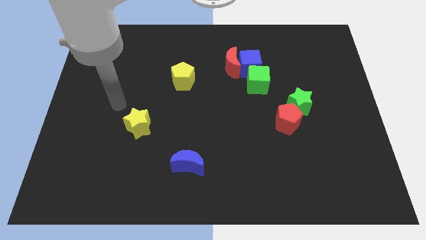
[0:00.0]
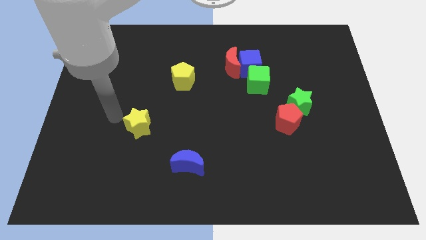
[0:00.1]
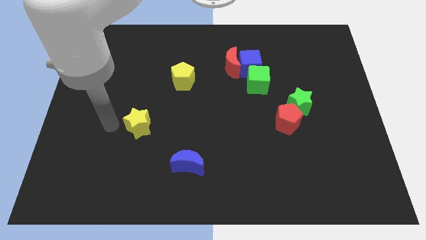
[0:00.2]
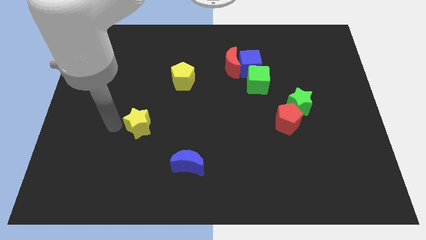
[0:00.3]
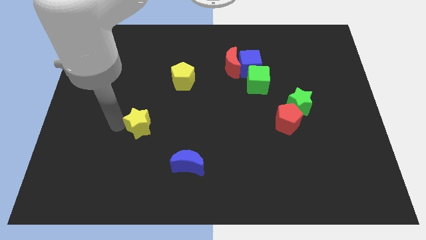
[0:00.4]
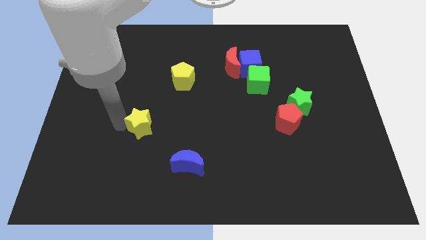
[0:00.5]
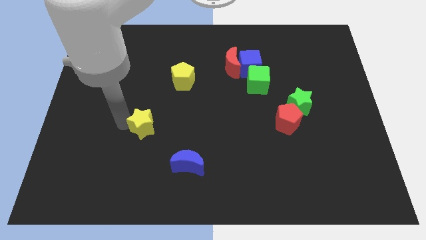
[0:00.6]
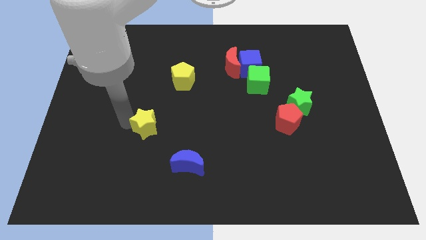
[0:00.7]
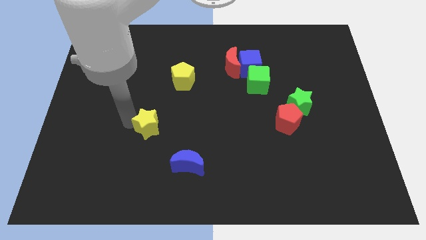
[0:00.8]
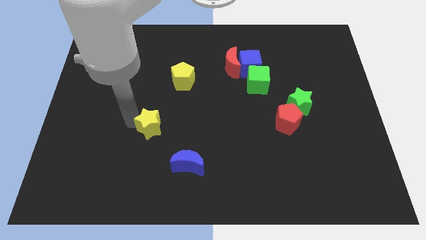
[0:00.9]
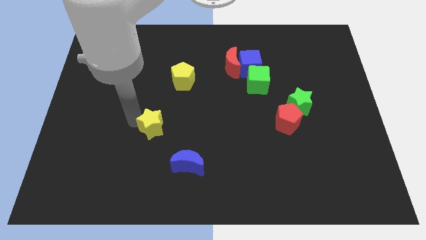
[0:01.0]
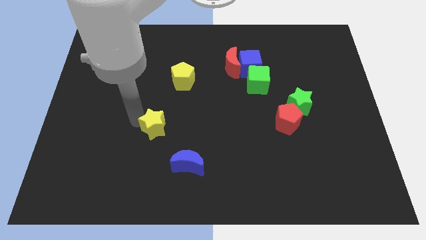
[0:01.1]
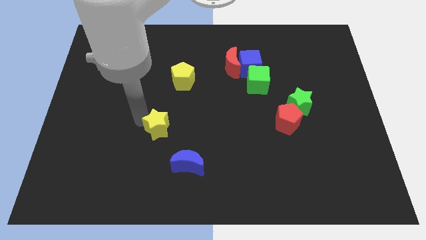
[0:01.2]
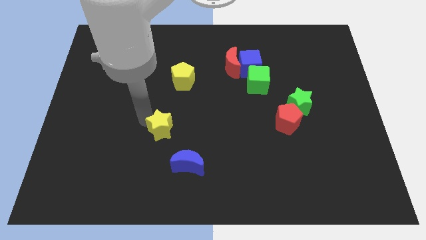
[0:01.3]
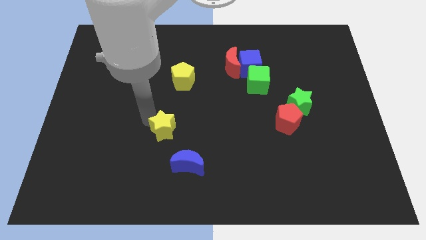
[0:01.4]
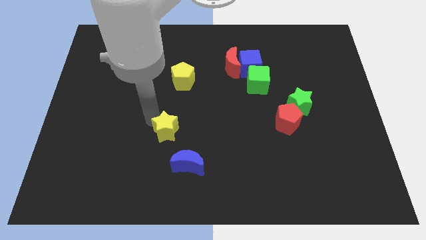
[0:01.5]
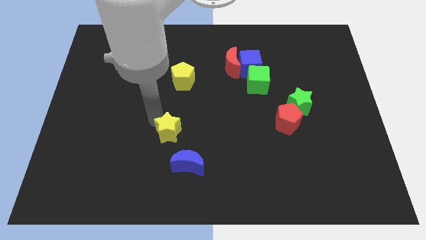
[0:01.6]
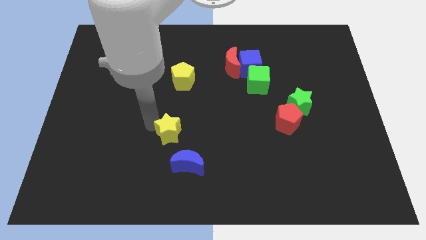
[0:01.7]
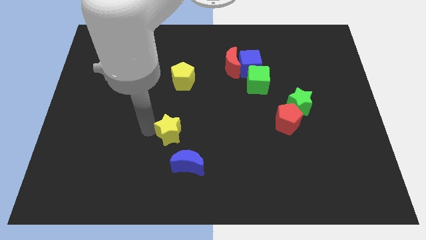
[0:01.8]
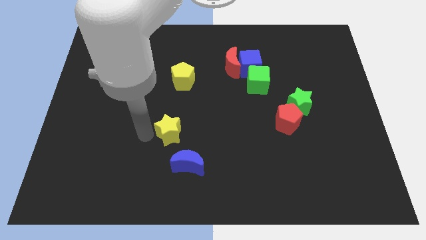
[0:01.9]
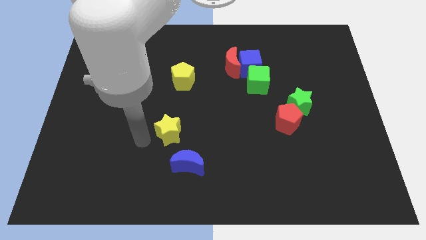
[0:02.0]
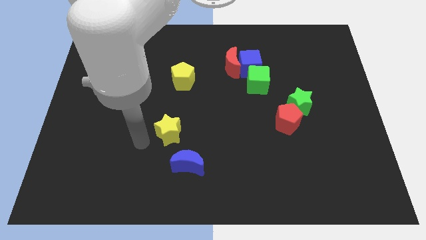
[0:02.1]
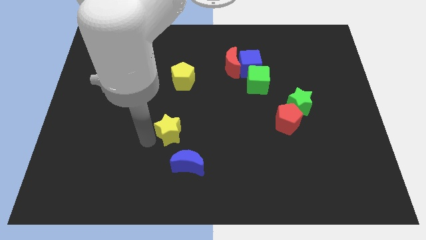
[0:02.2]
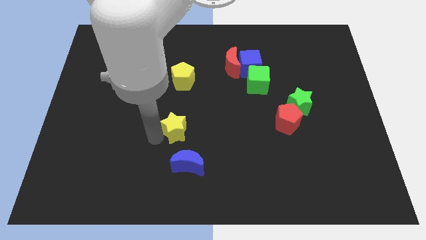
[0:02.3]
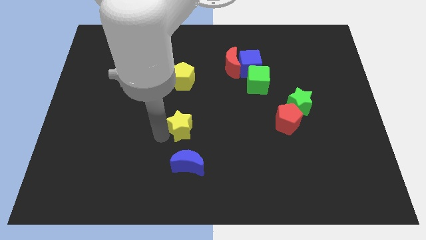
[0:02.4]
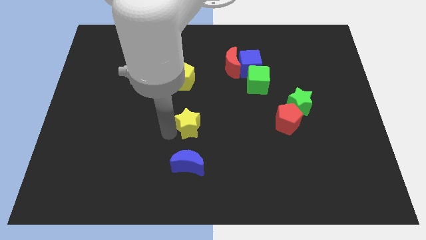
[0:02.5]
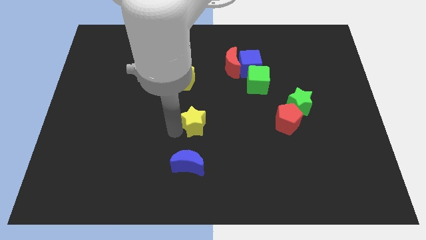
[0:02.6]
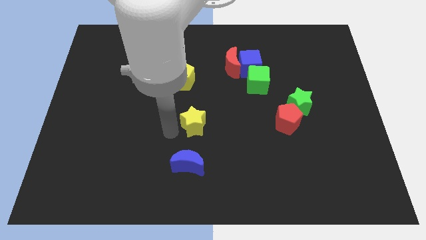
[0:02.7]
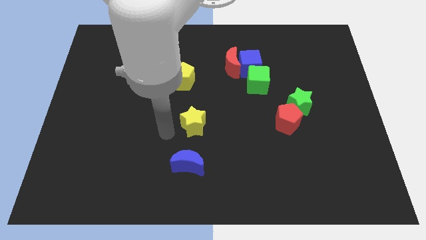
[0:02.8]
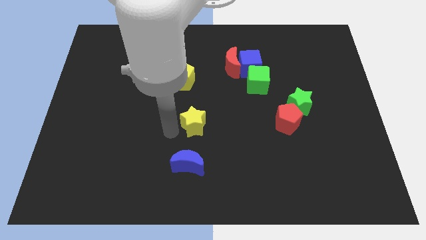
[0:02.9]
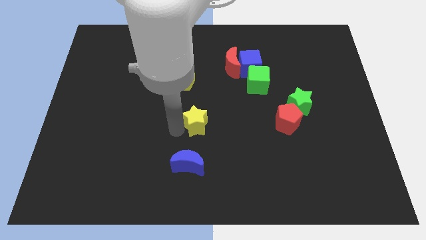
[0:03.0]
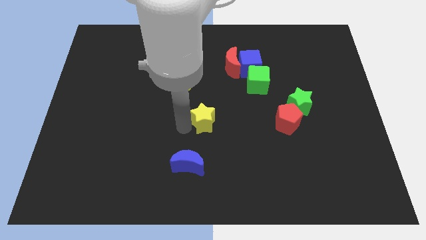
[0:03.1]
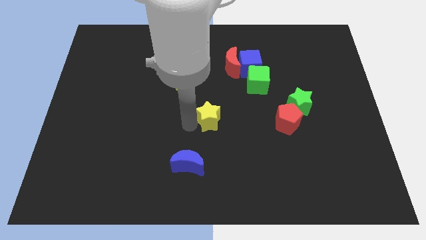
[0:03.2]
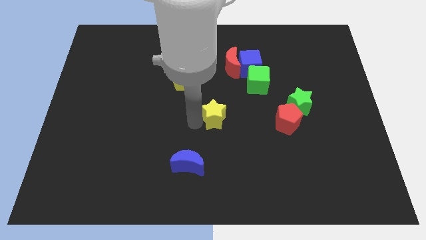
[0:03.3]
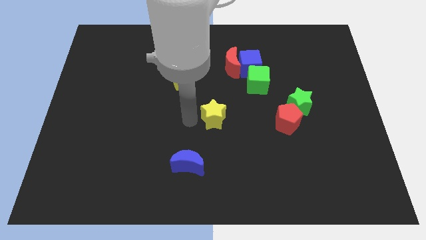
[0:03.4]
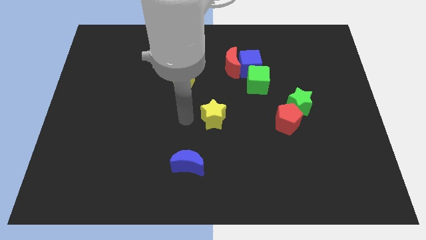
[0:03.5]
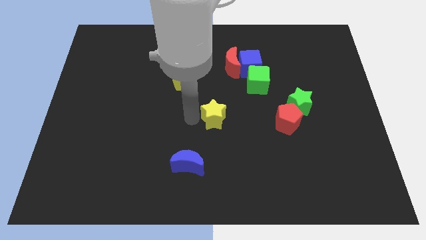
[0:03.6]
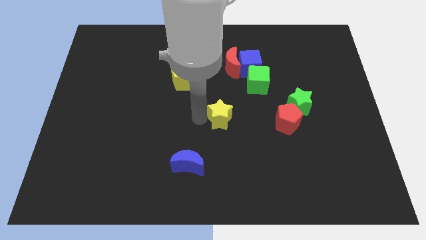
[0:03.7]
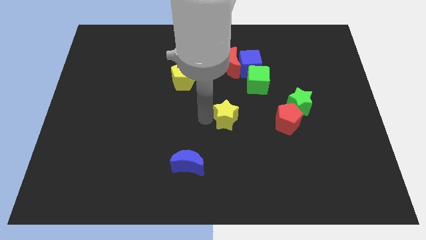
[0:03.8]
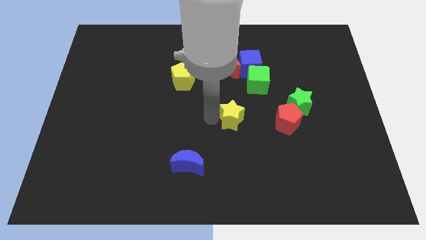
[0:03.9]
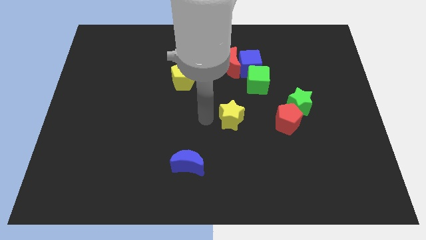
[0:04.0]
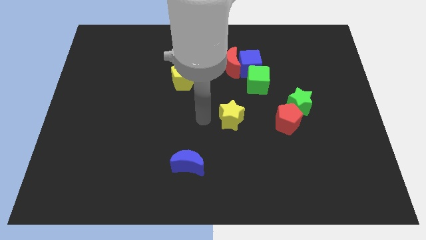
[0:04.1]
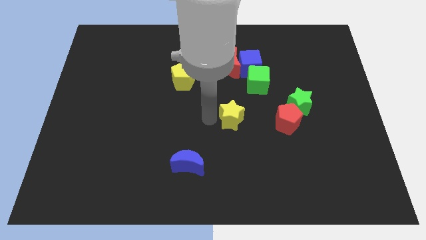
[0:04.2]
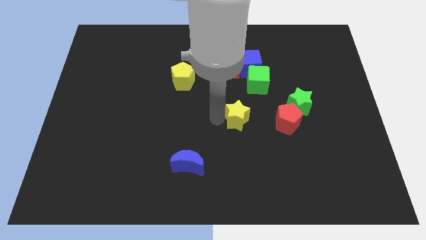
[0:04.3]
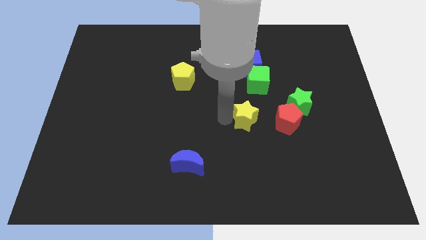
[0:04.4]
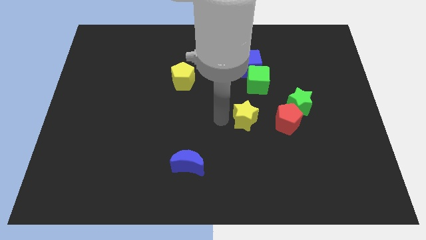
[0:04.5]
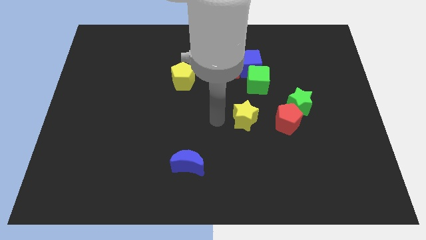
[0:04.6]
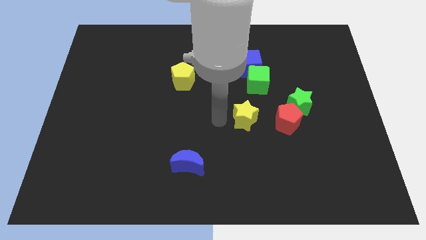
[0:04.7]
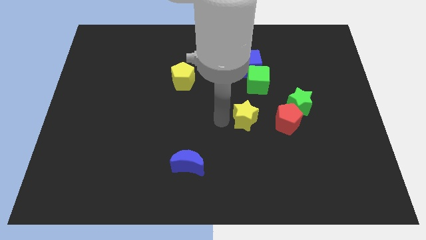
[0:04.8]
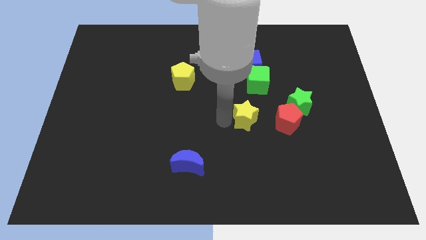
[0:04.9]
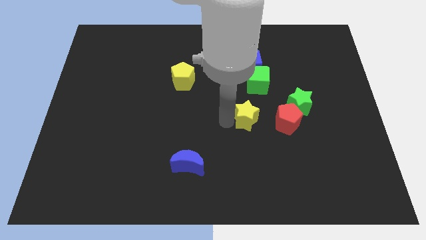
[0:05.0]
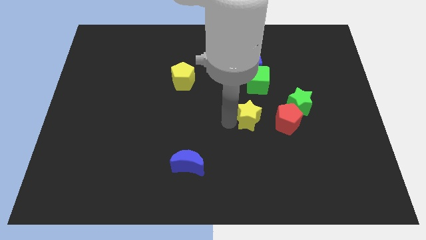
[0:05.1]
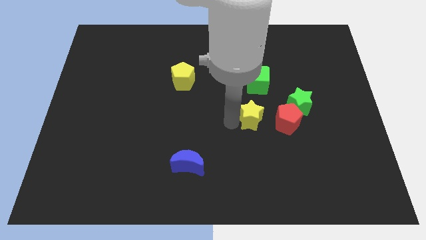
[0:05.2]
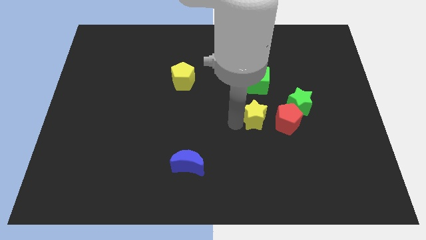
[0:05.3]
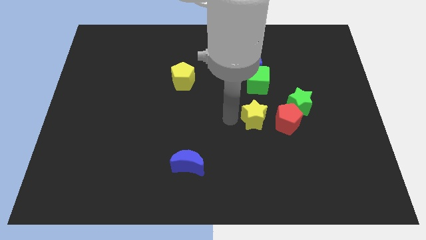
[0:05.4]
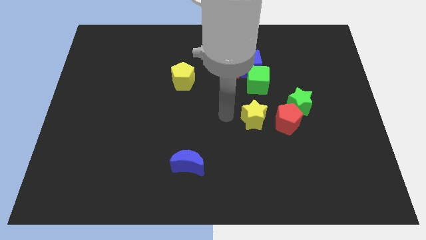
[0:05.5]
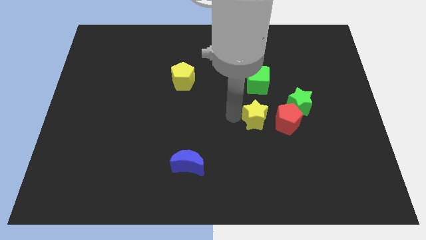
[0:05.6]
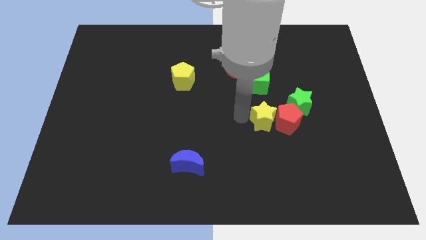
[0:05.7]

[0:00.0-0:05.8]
move the yellow star towards the red pentagon

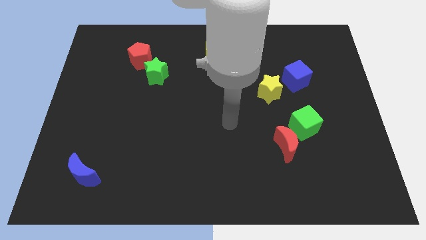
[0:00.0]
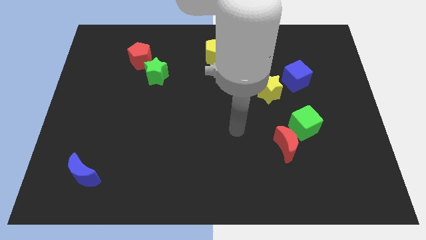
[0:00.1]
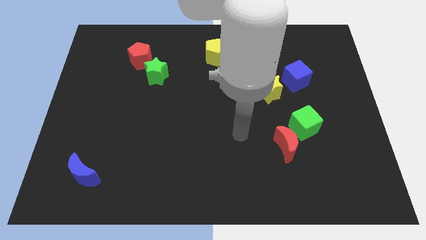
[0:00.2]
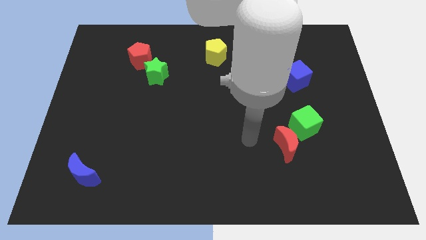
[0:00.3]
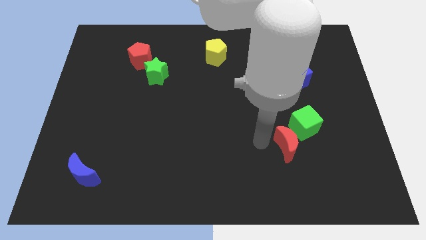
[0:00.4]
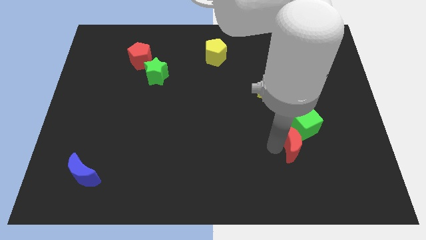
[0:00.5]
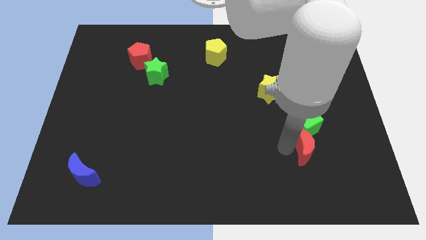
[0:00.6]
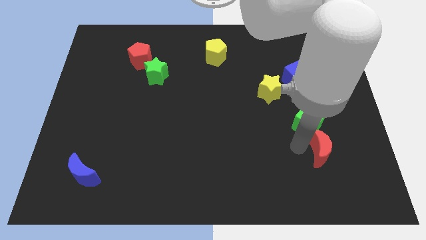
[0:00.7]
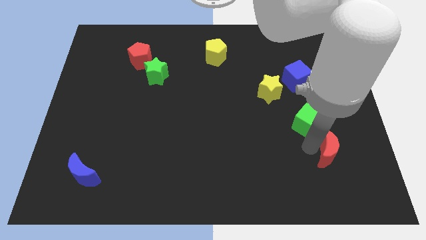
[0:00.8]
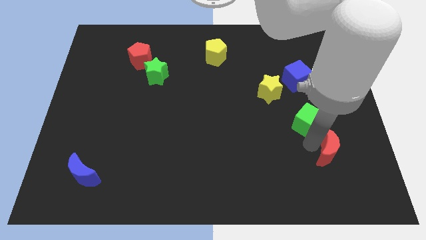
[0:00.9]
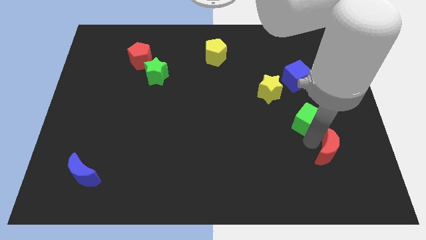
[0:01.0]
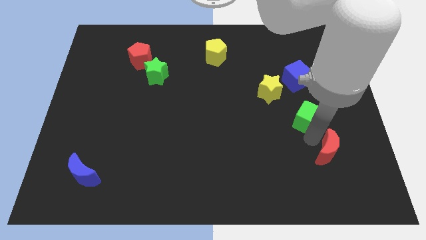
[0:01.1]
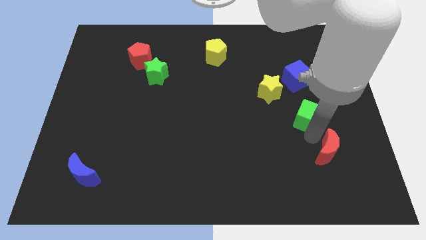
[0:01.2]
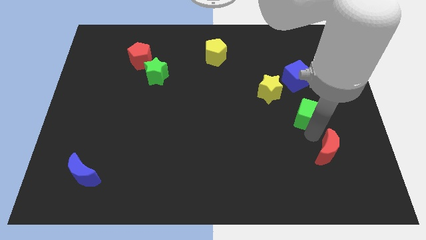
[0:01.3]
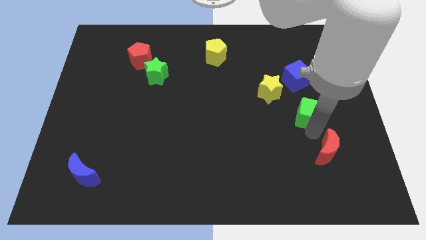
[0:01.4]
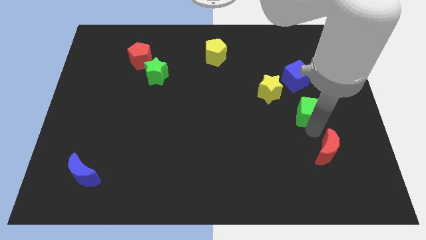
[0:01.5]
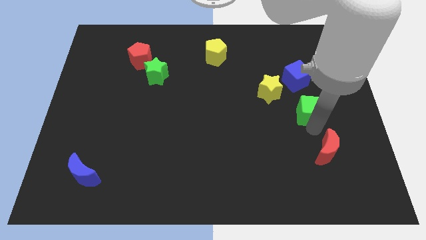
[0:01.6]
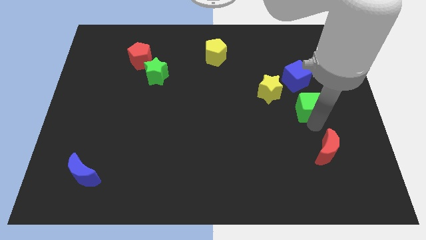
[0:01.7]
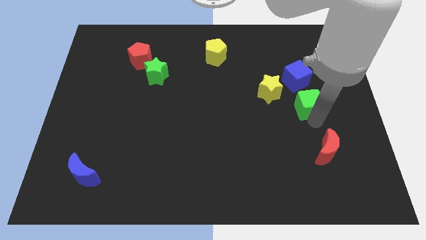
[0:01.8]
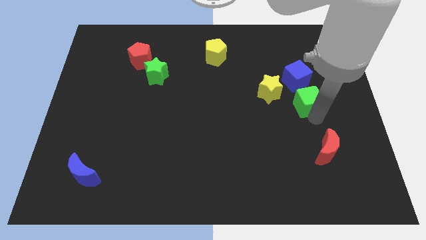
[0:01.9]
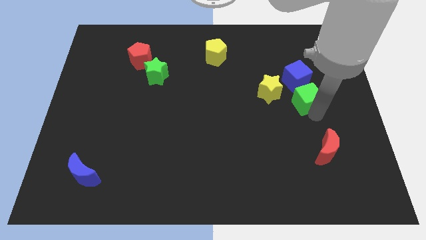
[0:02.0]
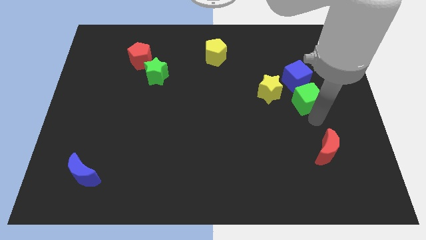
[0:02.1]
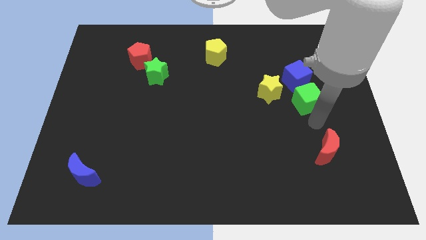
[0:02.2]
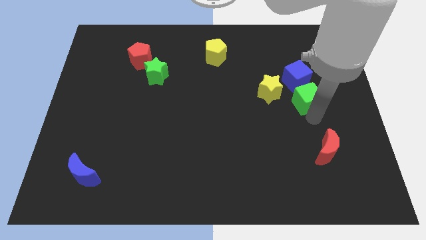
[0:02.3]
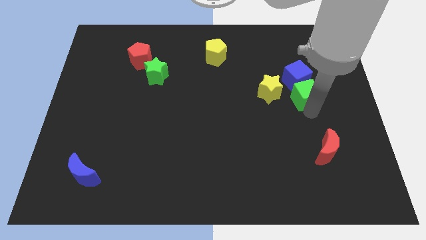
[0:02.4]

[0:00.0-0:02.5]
move the green cube to the blue cube
